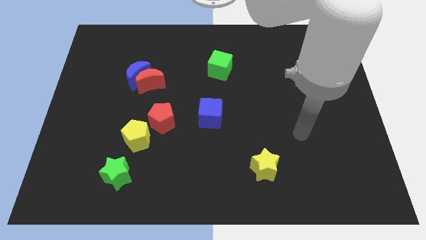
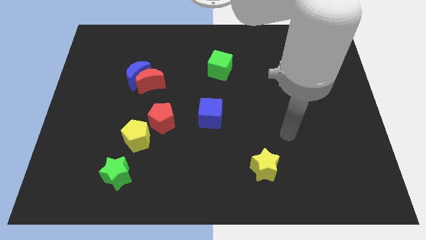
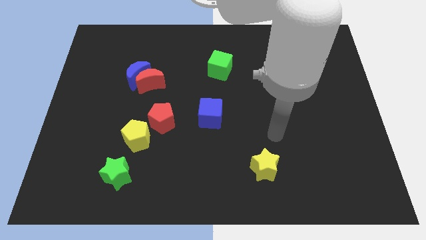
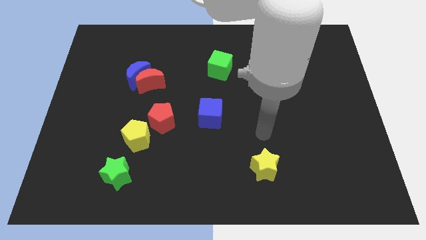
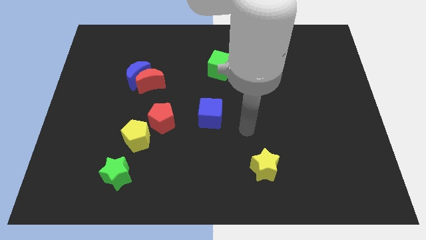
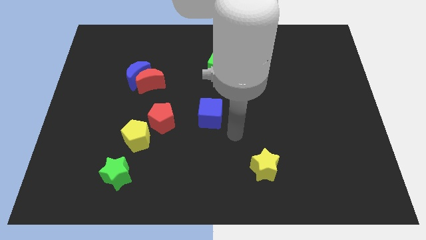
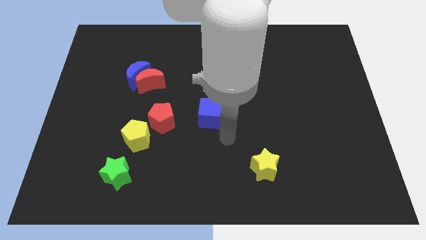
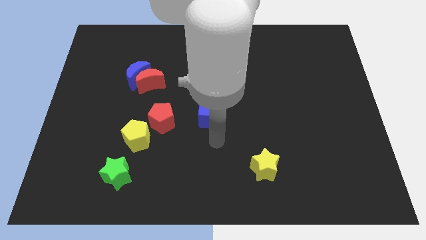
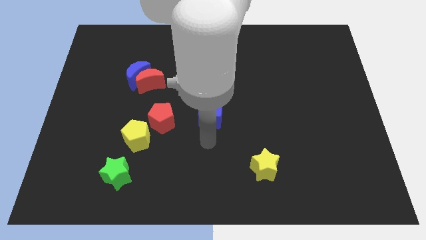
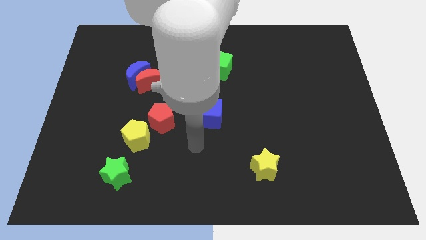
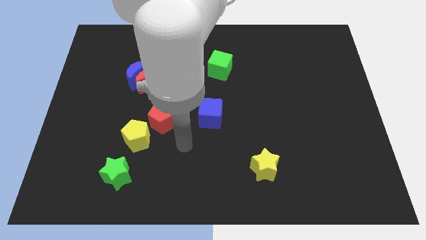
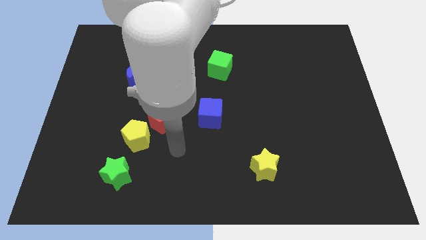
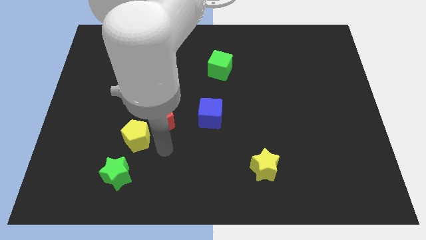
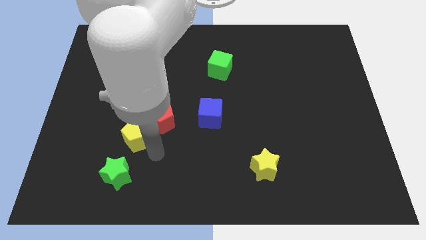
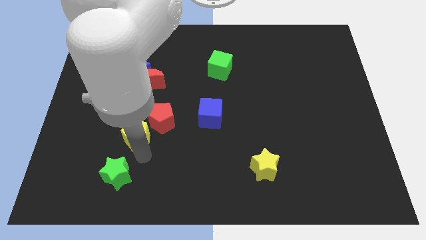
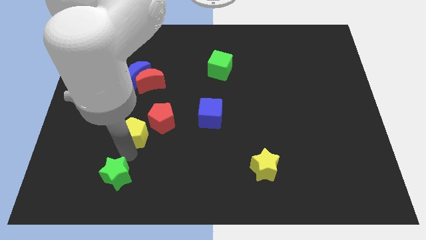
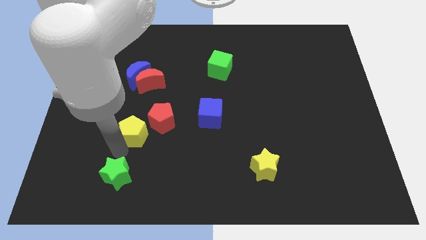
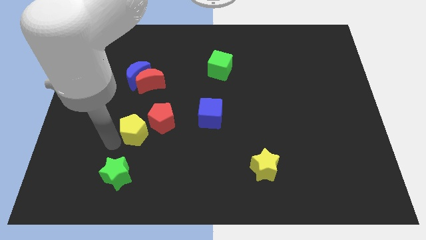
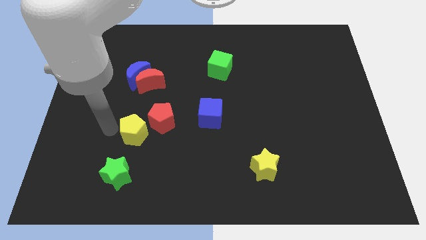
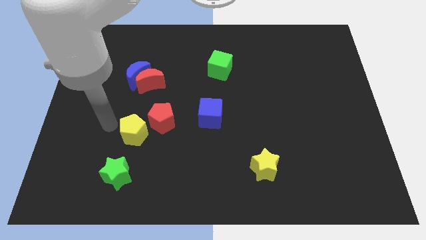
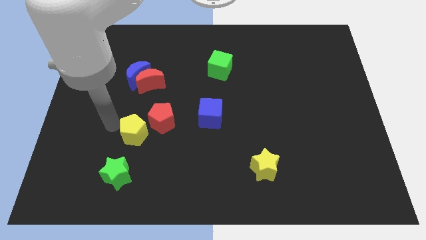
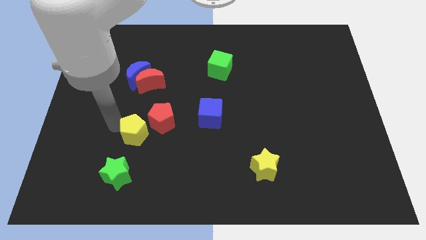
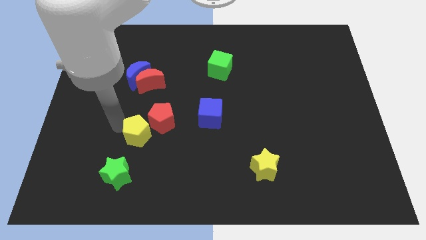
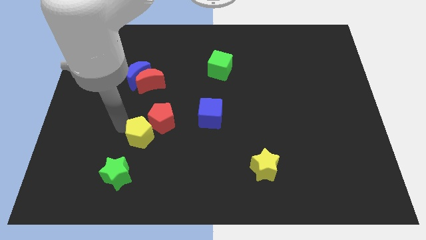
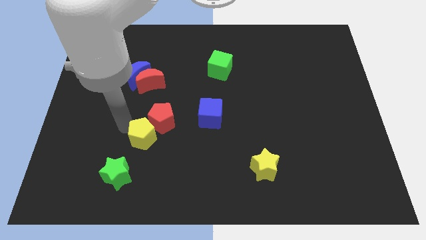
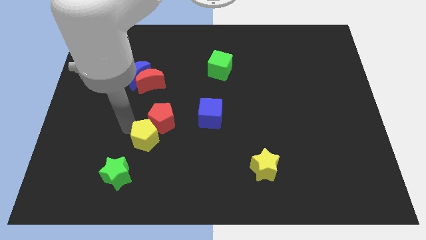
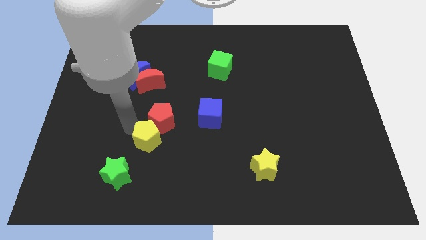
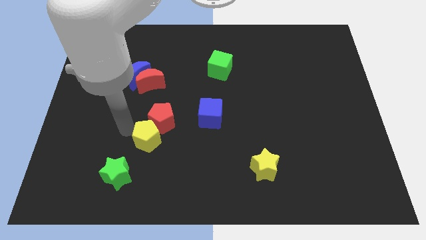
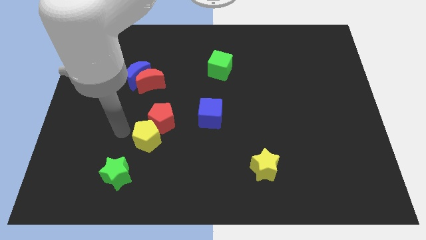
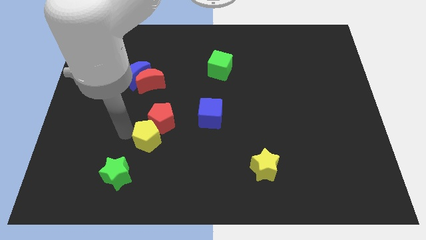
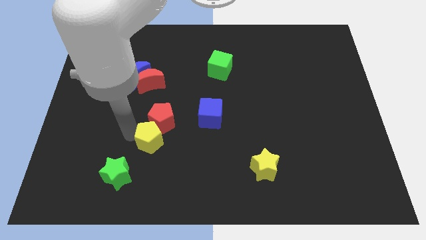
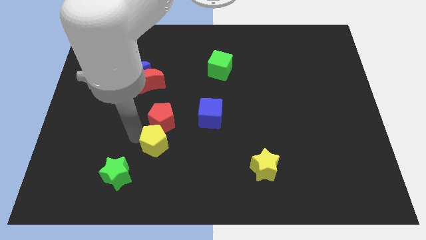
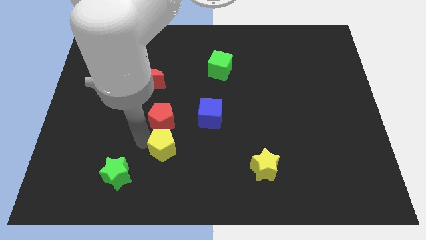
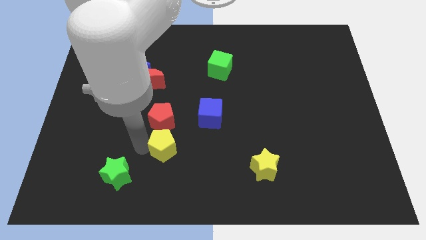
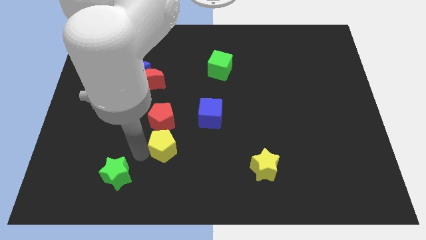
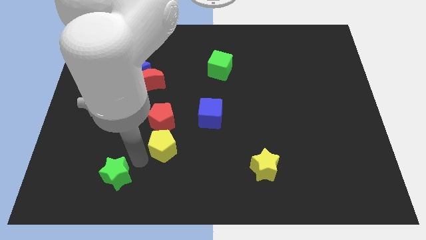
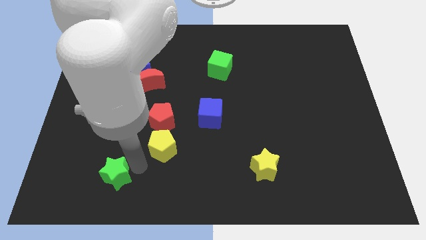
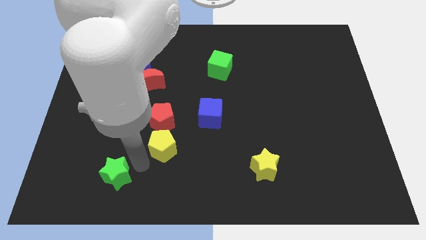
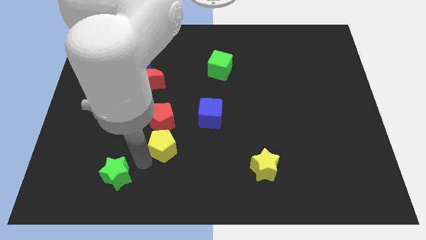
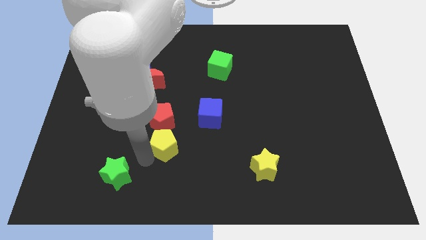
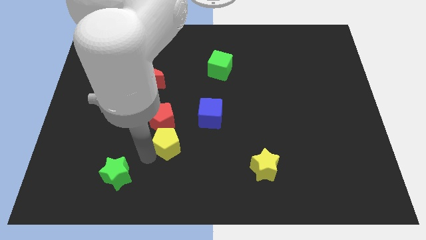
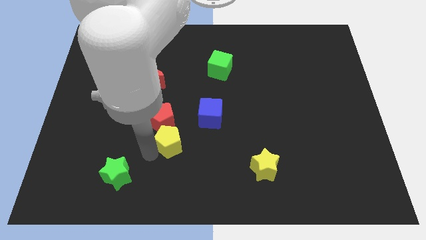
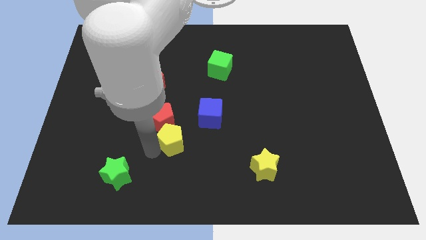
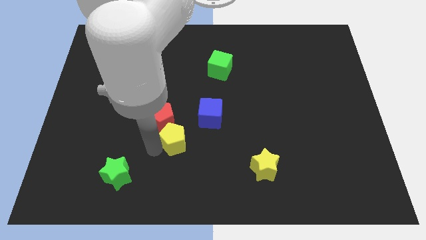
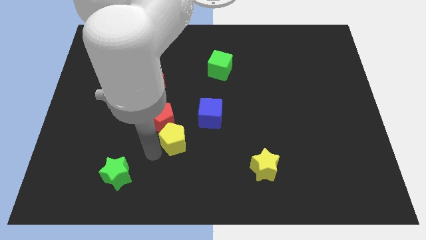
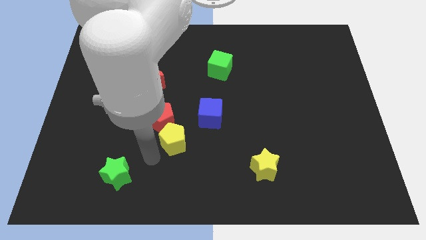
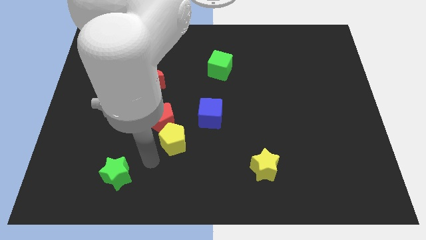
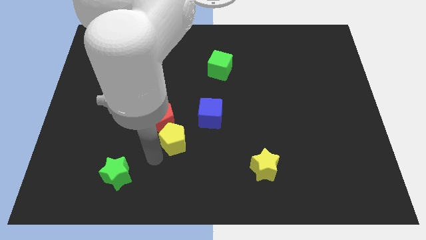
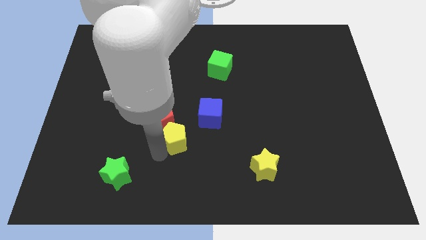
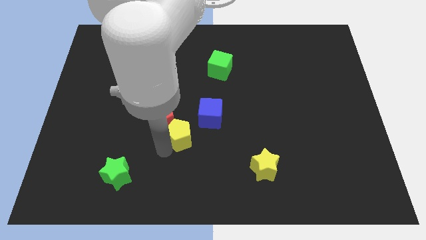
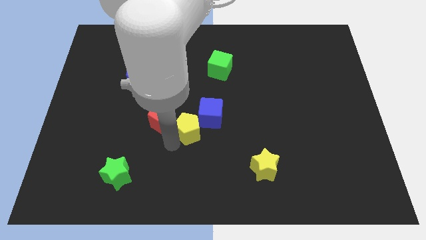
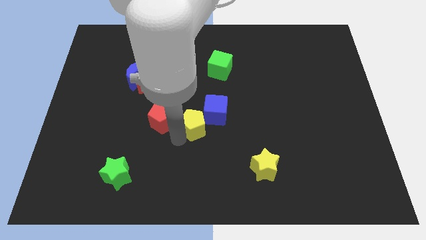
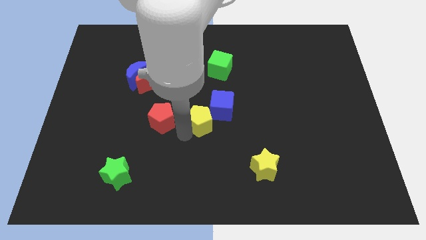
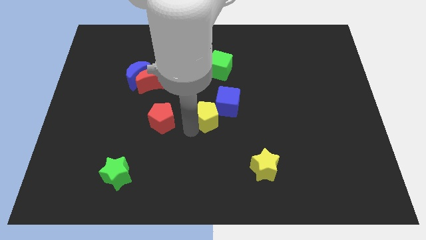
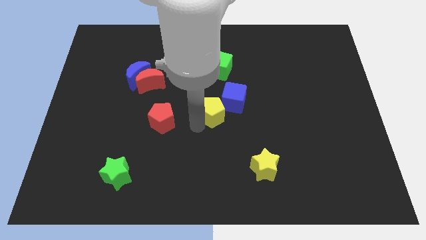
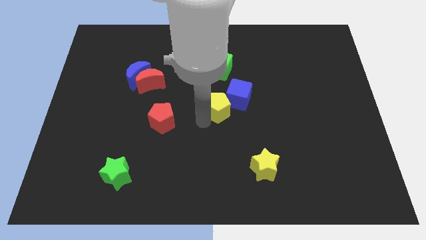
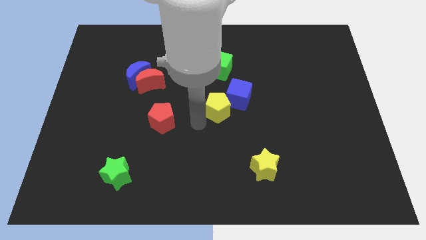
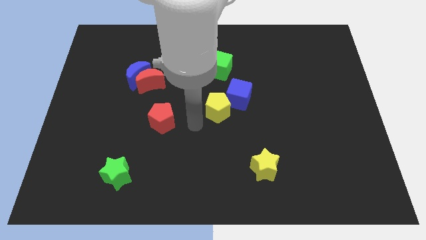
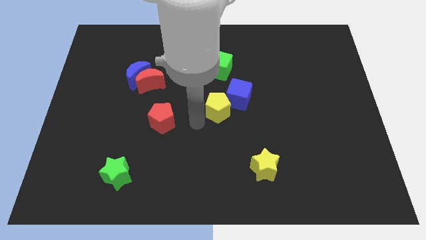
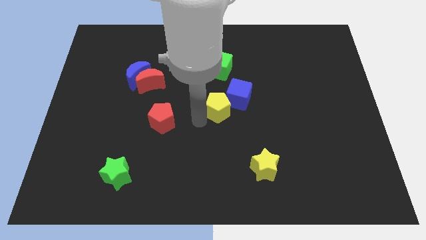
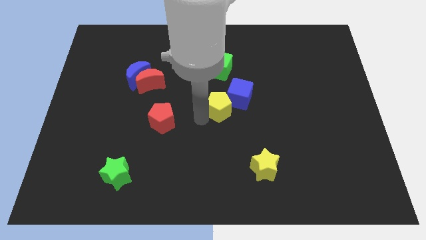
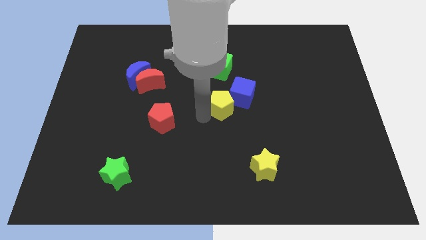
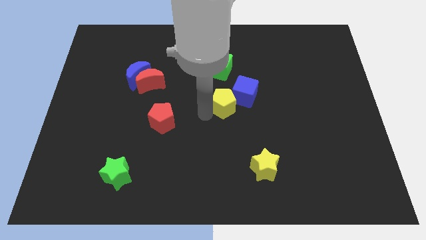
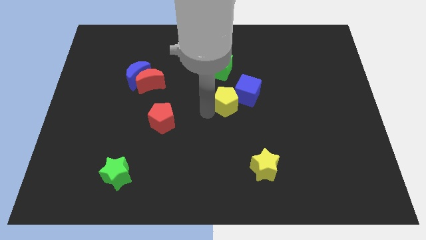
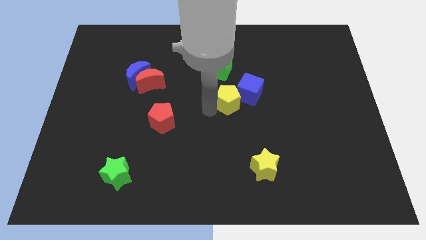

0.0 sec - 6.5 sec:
move the yellow pentagon towards the blue cube

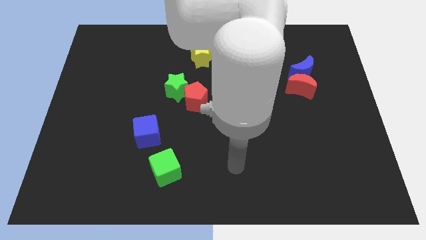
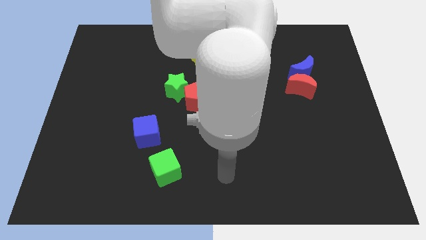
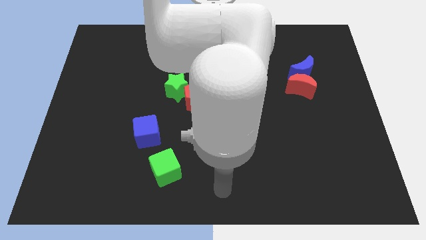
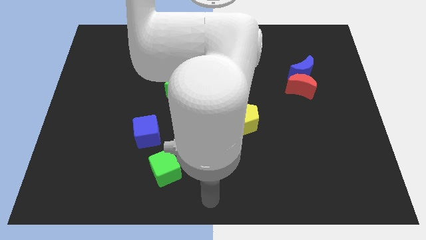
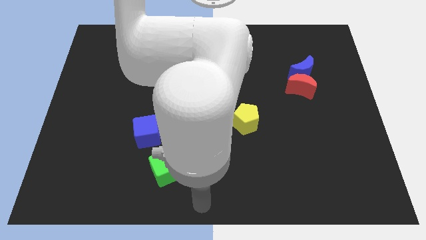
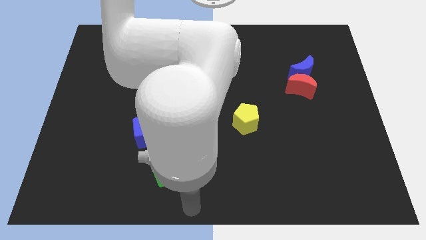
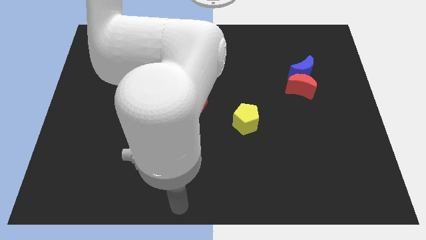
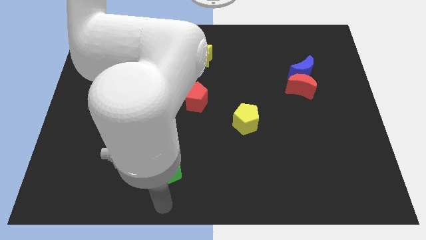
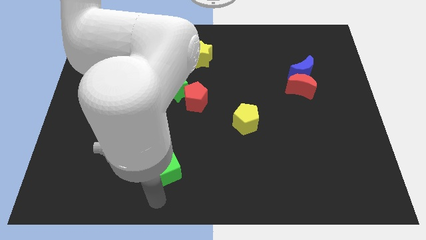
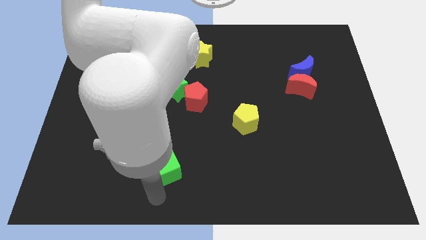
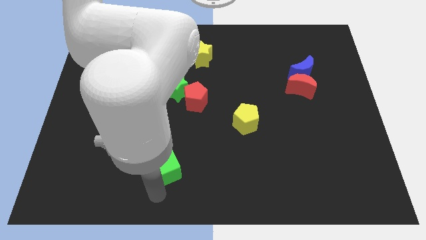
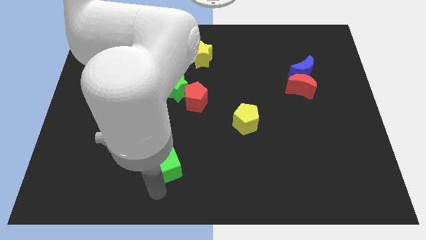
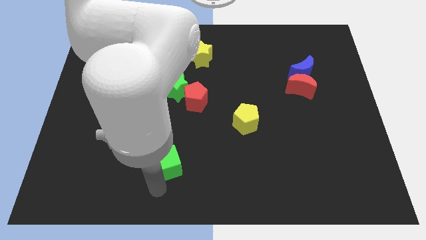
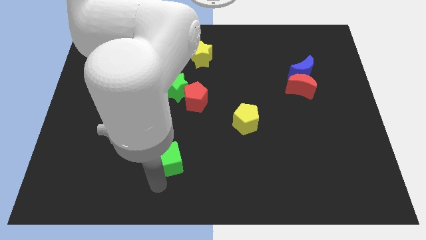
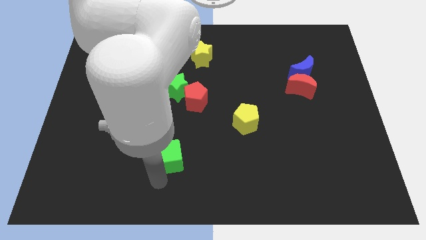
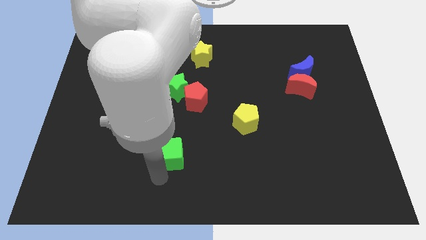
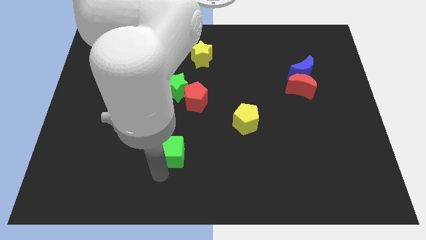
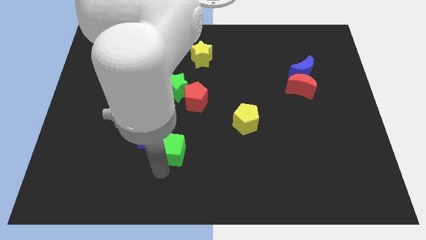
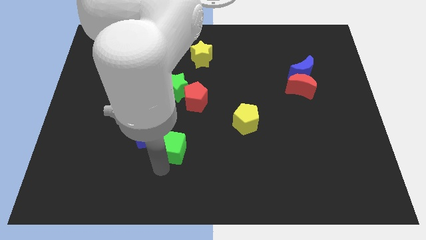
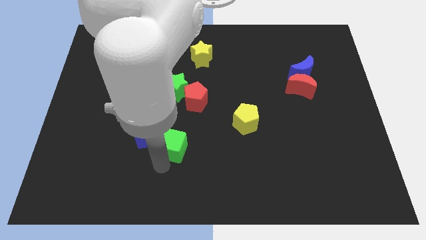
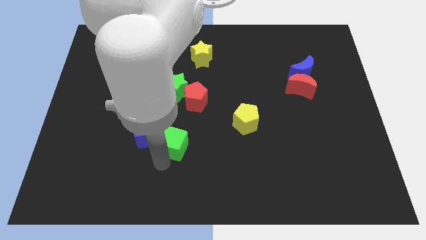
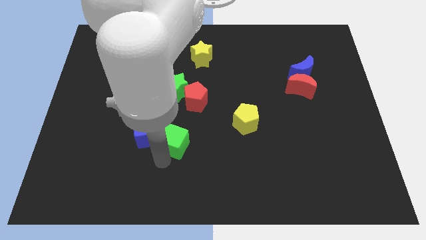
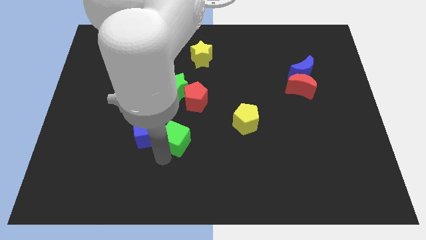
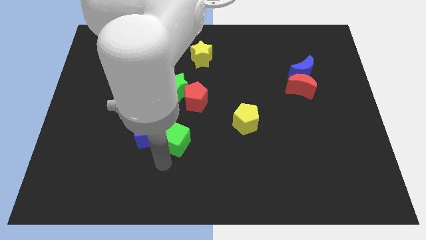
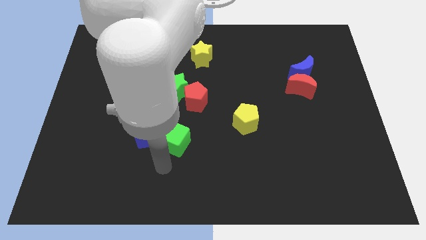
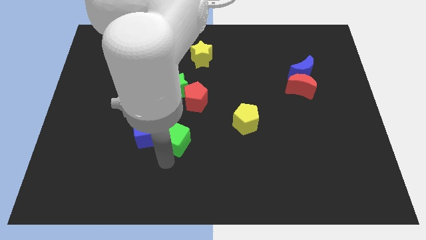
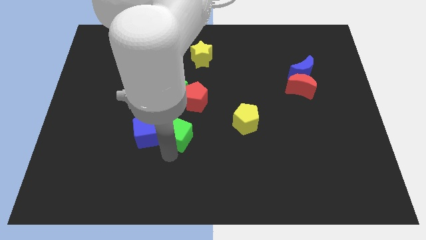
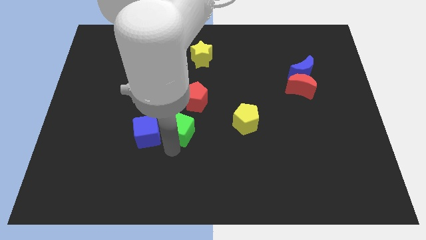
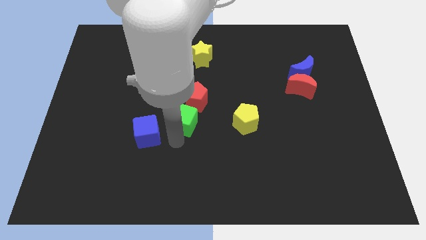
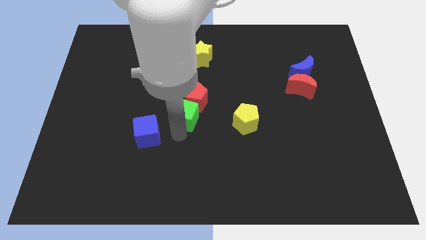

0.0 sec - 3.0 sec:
slide the green cube close to the red pentagon
